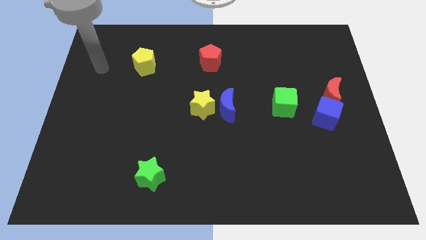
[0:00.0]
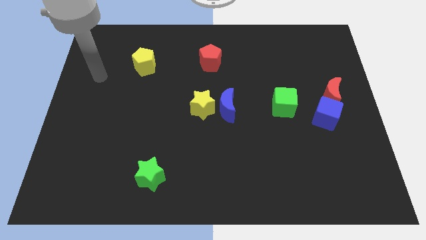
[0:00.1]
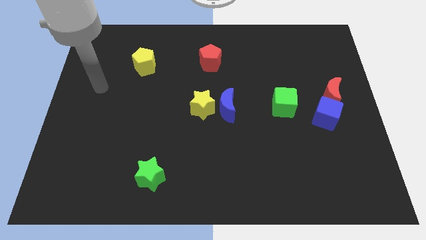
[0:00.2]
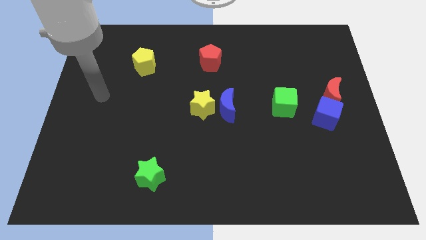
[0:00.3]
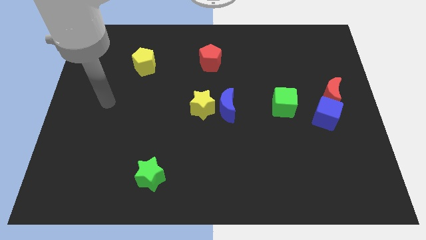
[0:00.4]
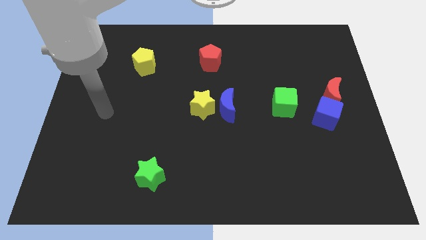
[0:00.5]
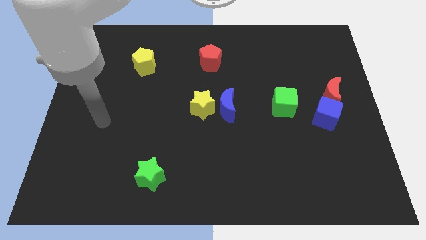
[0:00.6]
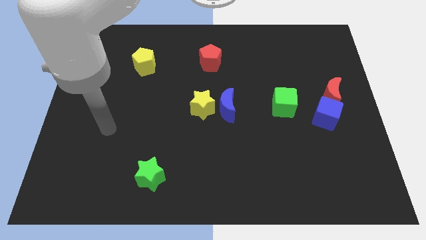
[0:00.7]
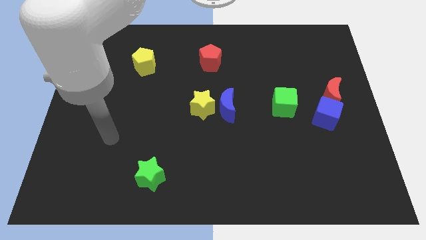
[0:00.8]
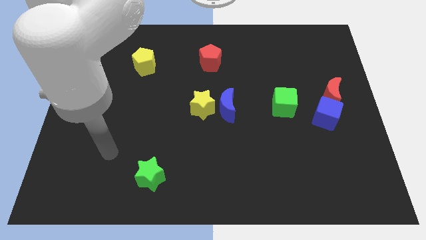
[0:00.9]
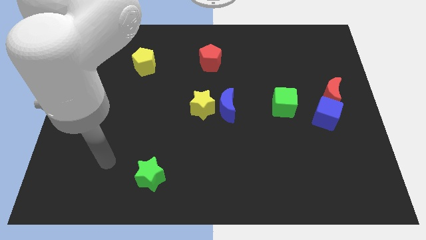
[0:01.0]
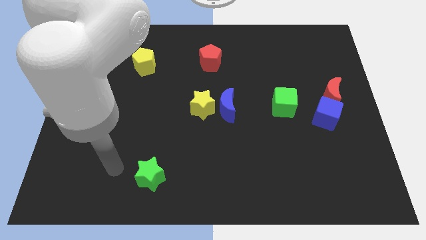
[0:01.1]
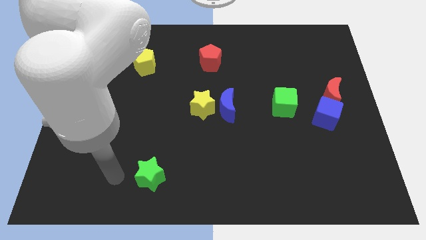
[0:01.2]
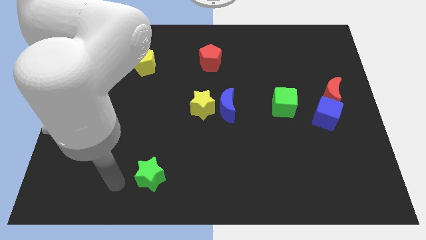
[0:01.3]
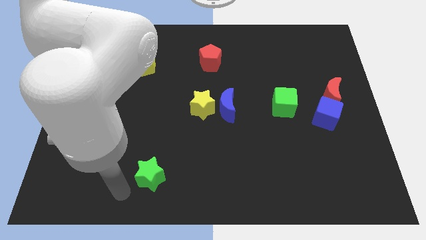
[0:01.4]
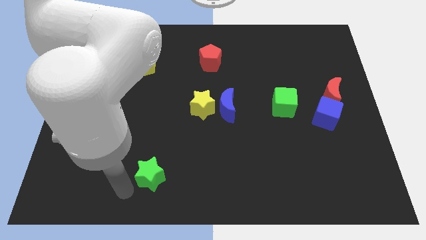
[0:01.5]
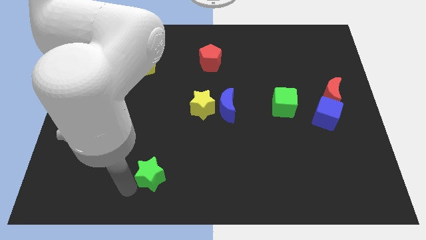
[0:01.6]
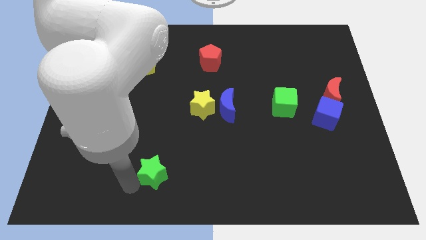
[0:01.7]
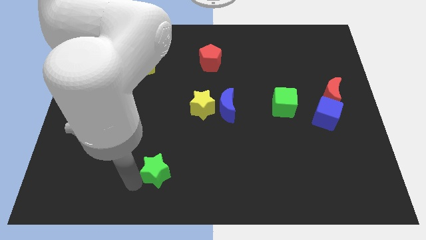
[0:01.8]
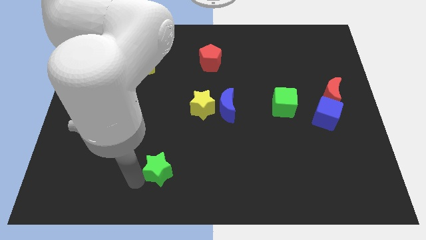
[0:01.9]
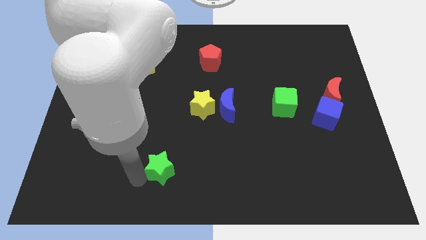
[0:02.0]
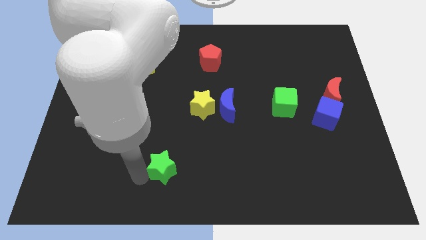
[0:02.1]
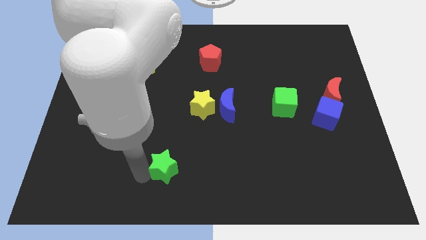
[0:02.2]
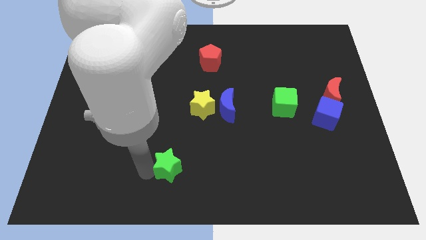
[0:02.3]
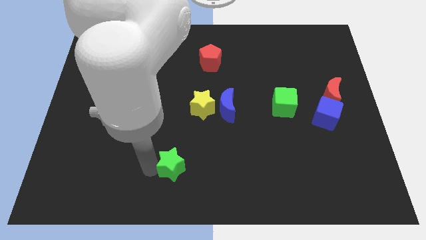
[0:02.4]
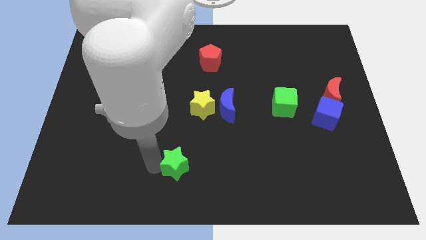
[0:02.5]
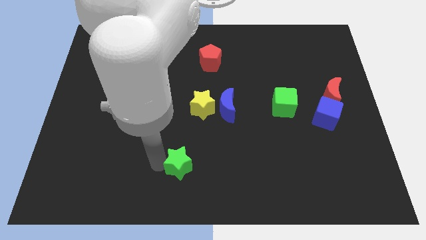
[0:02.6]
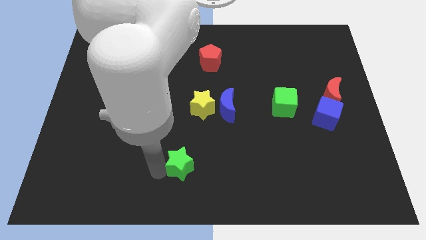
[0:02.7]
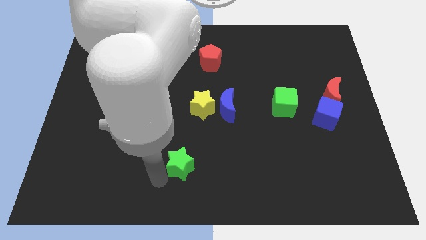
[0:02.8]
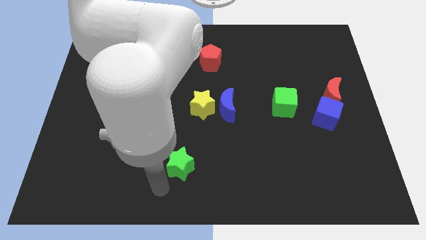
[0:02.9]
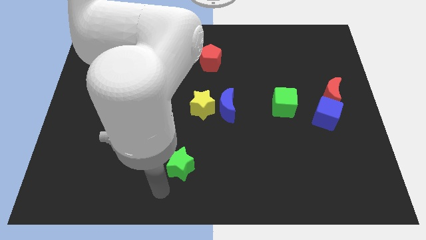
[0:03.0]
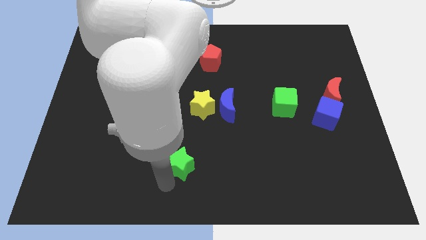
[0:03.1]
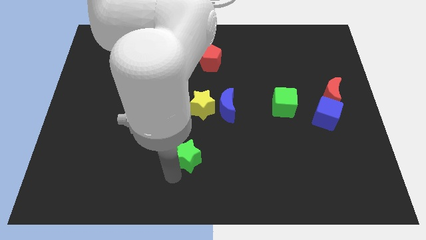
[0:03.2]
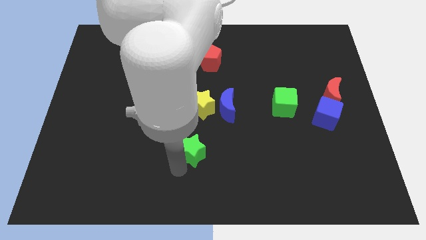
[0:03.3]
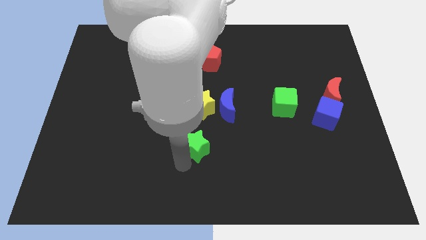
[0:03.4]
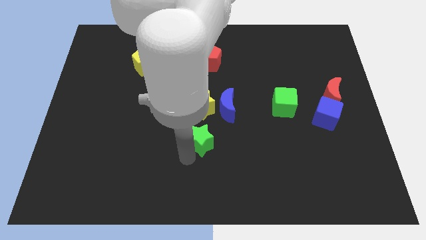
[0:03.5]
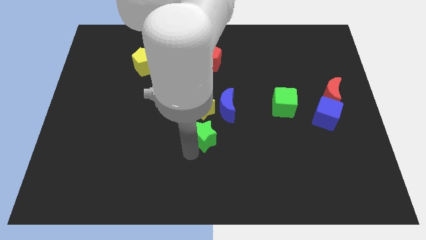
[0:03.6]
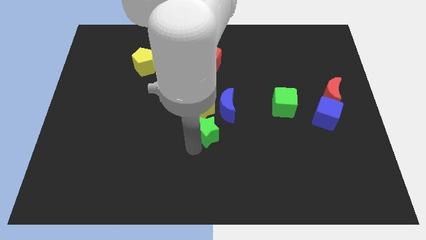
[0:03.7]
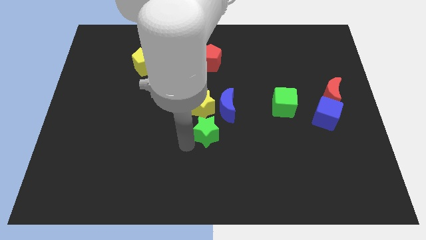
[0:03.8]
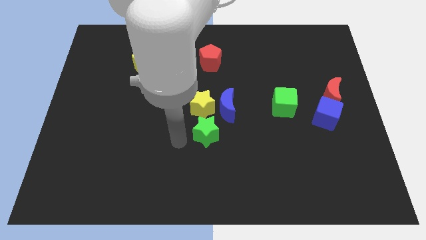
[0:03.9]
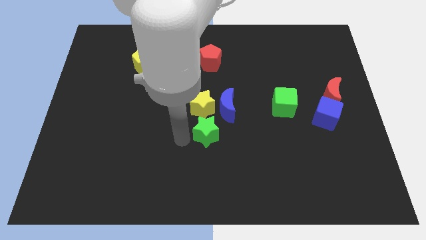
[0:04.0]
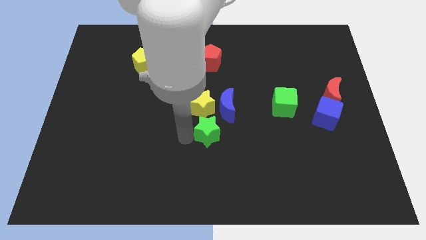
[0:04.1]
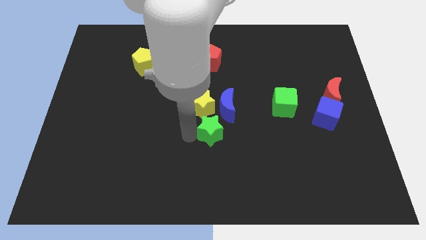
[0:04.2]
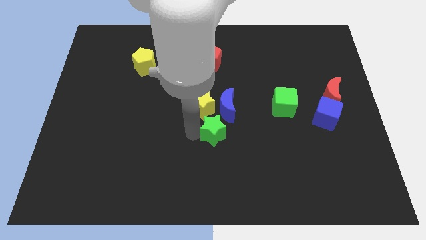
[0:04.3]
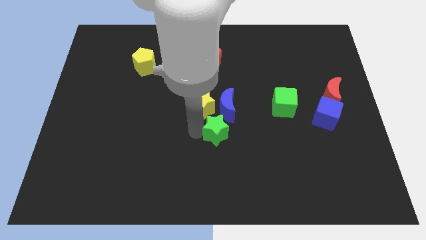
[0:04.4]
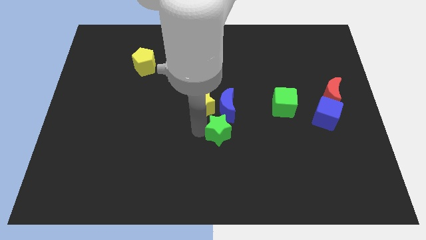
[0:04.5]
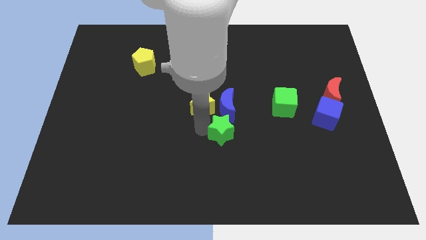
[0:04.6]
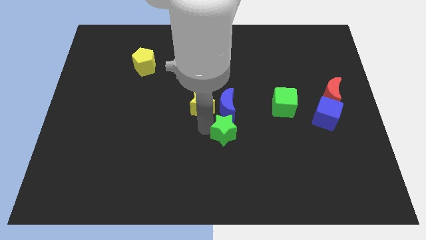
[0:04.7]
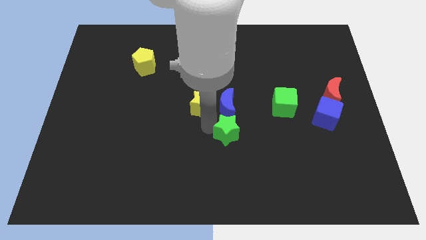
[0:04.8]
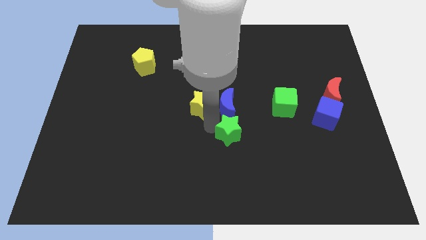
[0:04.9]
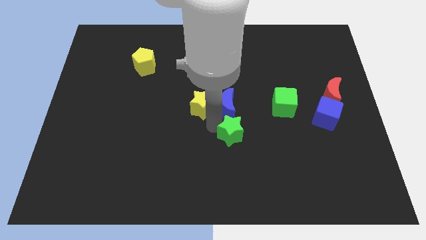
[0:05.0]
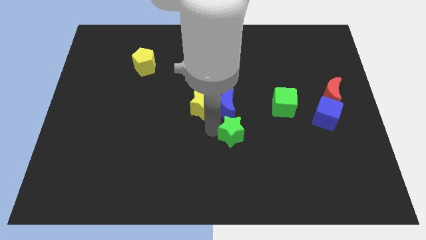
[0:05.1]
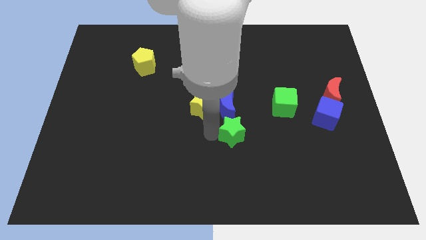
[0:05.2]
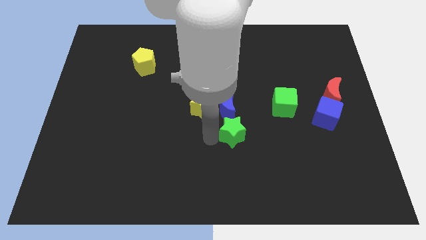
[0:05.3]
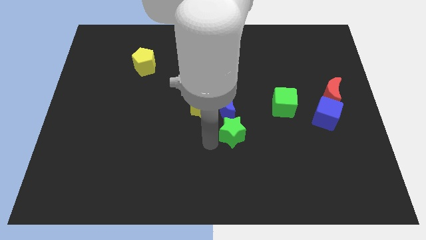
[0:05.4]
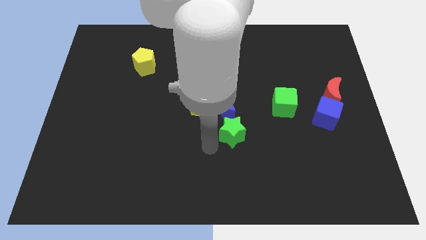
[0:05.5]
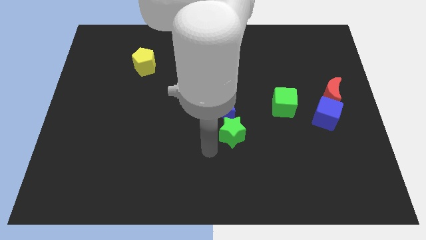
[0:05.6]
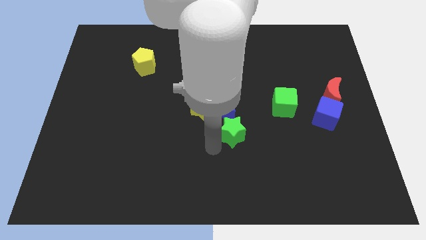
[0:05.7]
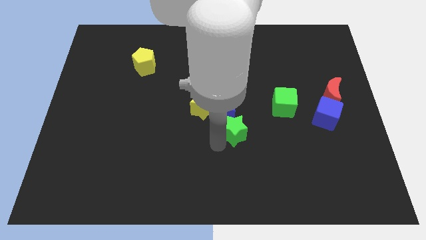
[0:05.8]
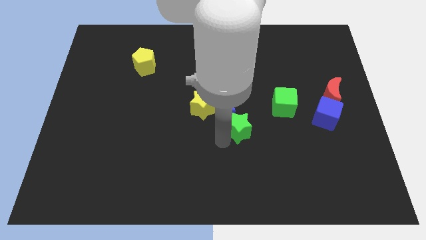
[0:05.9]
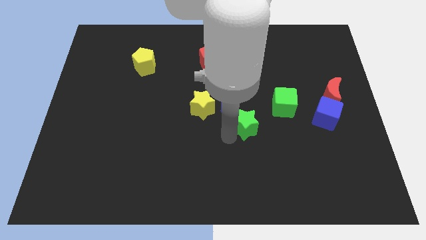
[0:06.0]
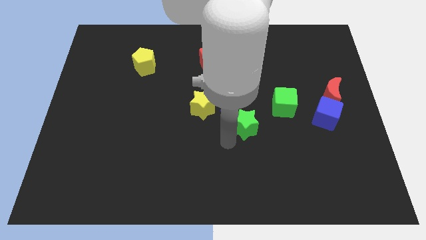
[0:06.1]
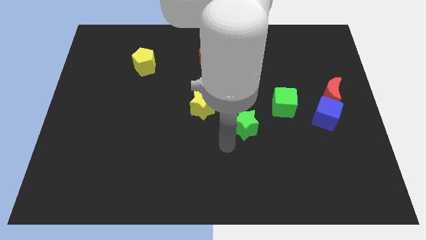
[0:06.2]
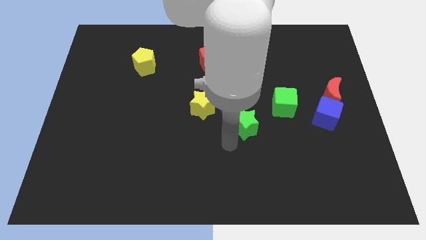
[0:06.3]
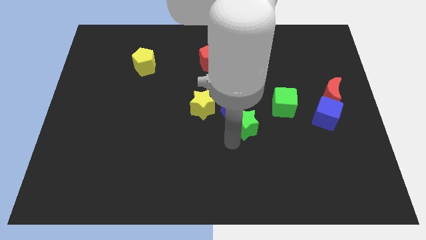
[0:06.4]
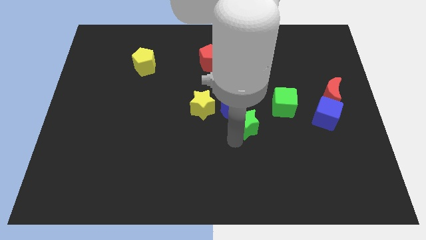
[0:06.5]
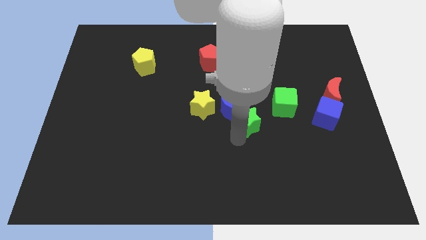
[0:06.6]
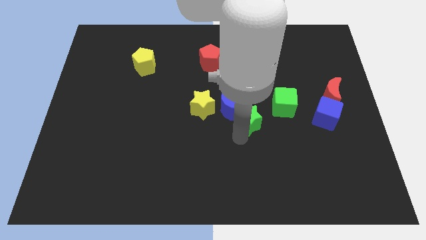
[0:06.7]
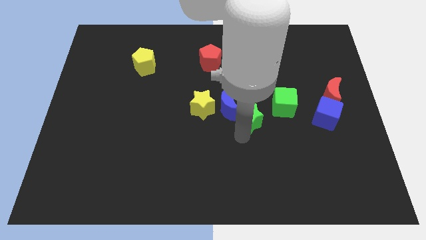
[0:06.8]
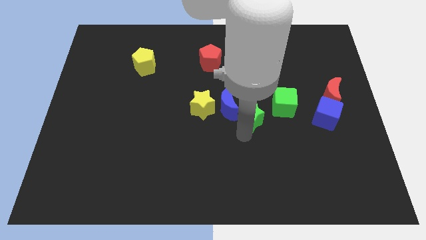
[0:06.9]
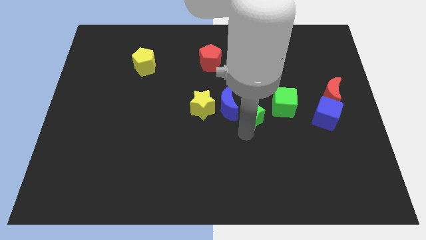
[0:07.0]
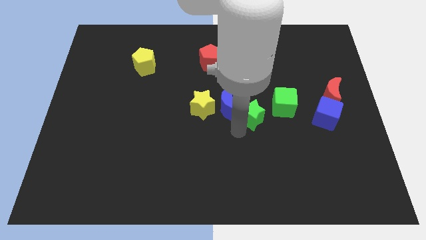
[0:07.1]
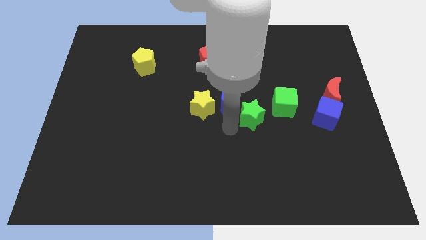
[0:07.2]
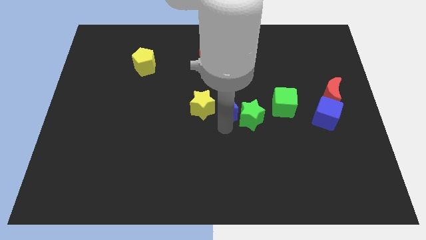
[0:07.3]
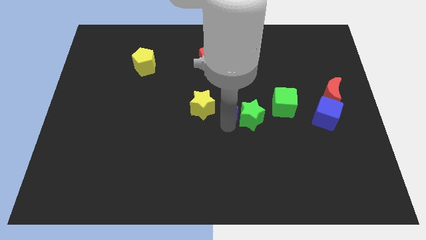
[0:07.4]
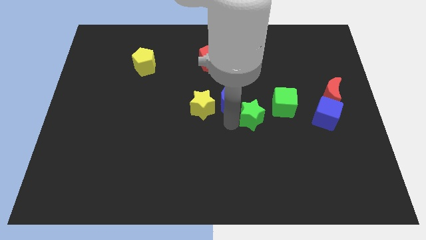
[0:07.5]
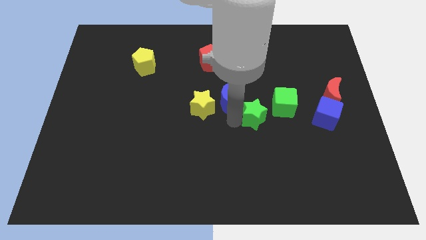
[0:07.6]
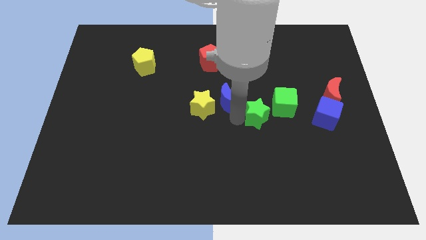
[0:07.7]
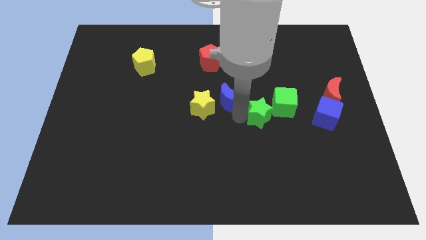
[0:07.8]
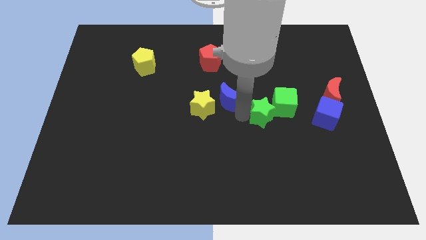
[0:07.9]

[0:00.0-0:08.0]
move the green star next to the green cube
